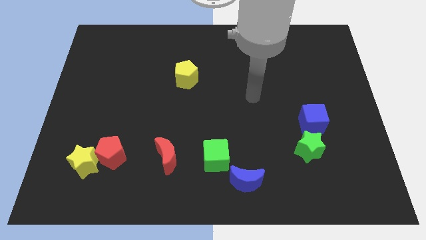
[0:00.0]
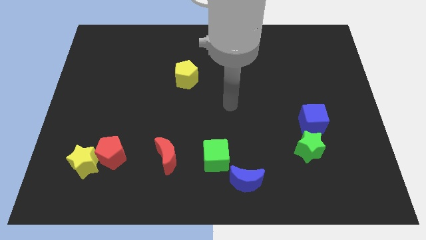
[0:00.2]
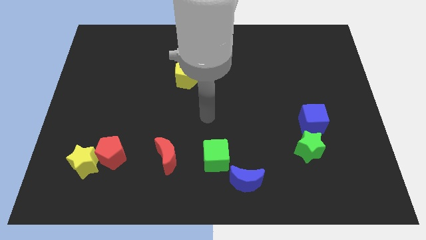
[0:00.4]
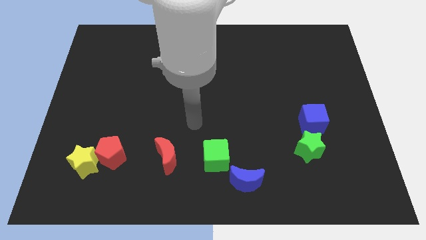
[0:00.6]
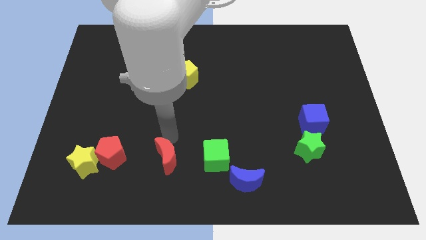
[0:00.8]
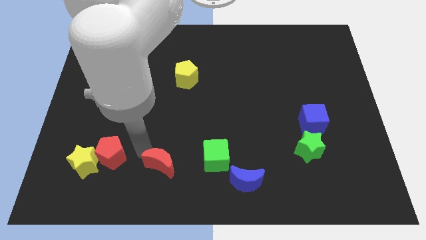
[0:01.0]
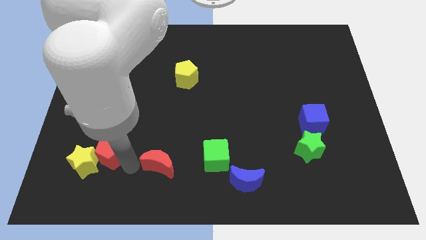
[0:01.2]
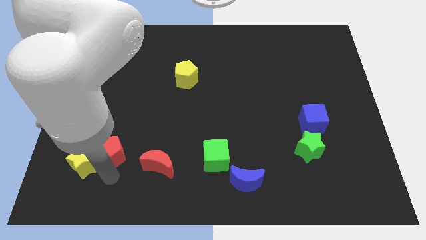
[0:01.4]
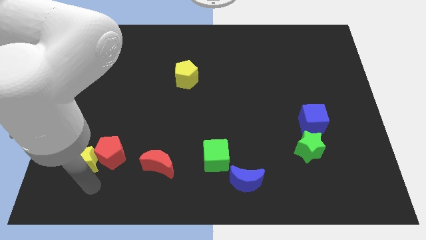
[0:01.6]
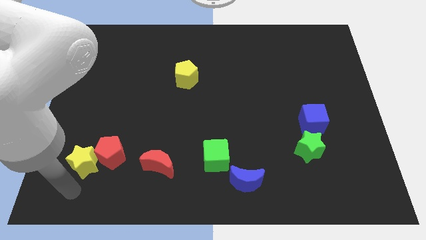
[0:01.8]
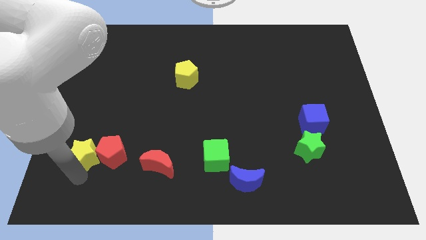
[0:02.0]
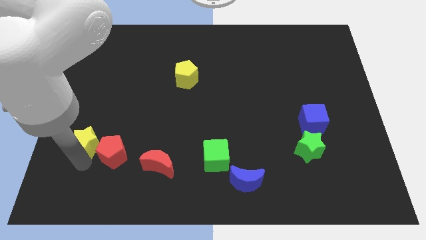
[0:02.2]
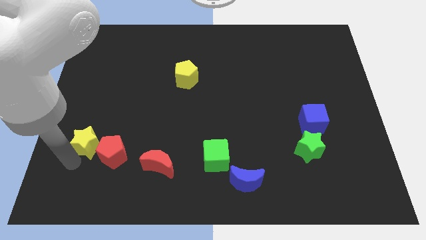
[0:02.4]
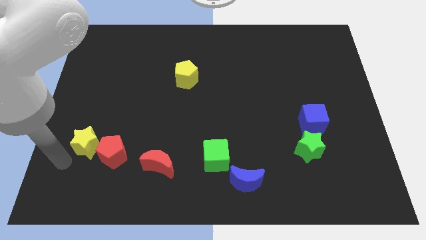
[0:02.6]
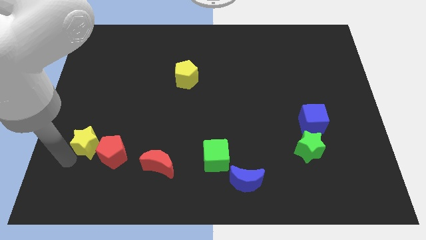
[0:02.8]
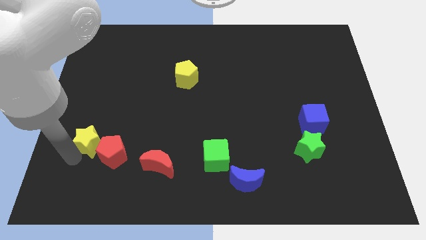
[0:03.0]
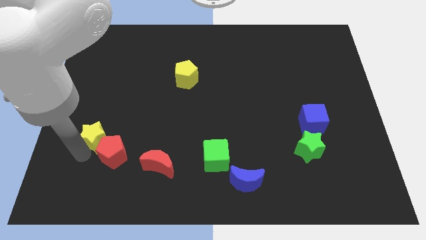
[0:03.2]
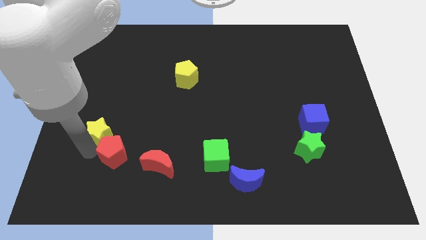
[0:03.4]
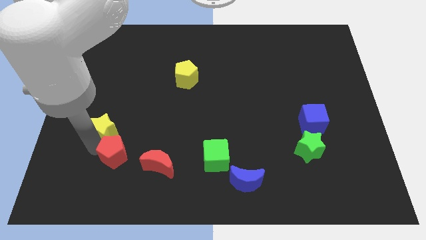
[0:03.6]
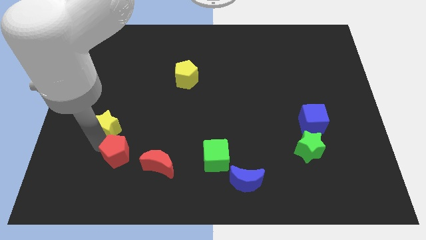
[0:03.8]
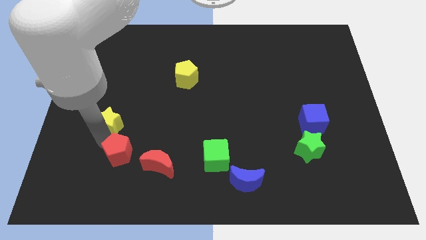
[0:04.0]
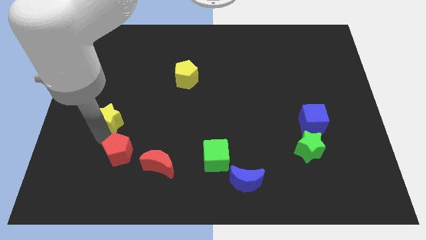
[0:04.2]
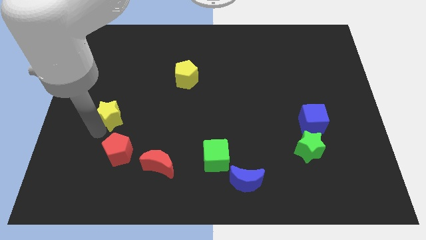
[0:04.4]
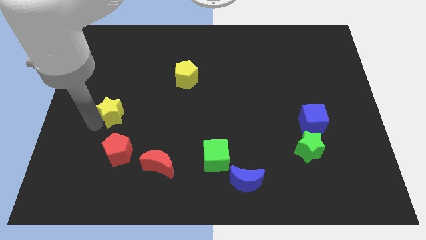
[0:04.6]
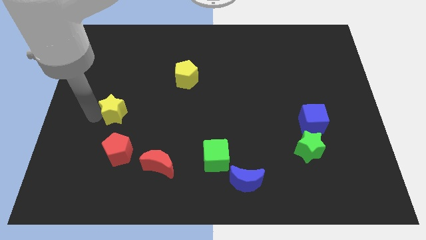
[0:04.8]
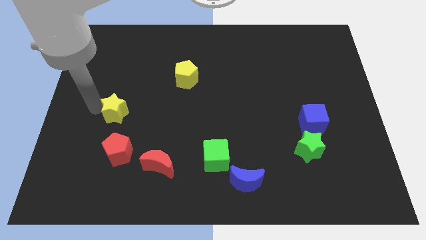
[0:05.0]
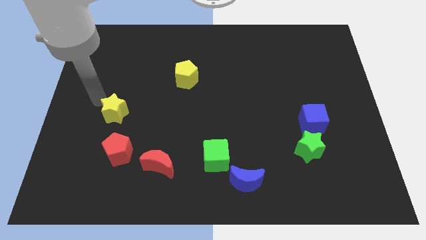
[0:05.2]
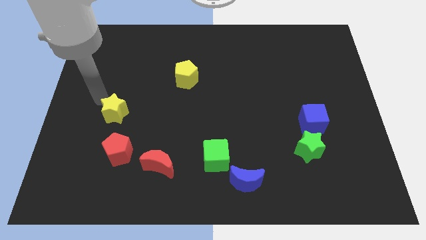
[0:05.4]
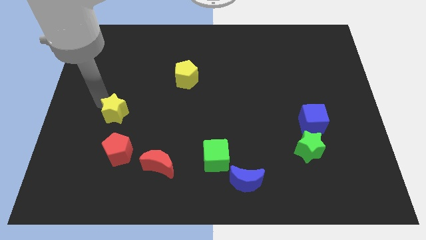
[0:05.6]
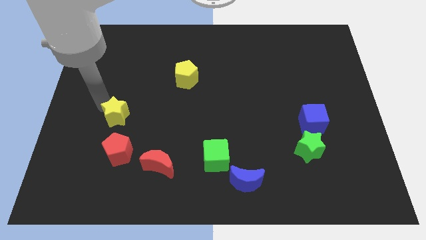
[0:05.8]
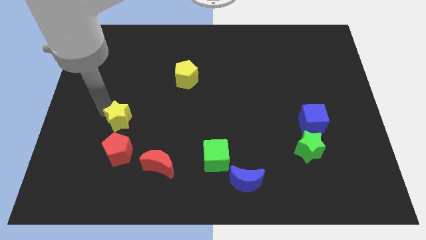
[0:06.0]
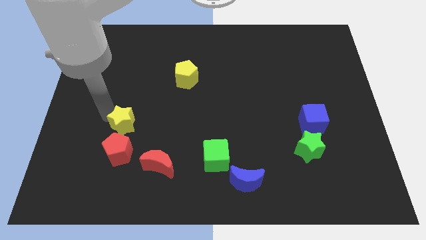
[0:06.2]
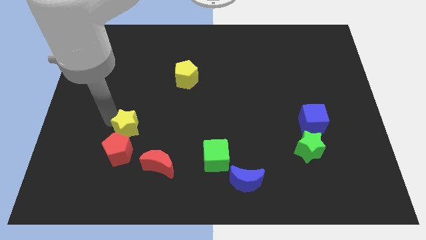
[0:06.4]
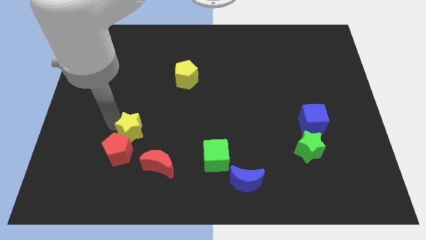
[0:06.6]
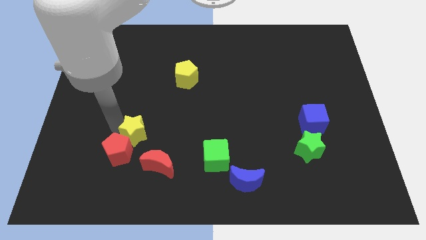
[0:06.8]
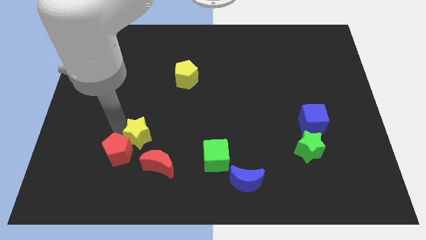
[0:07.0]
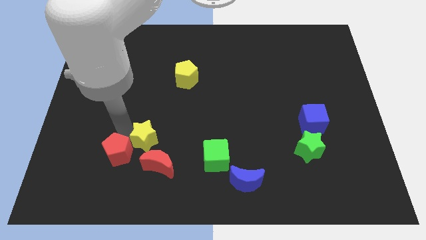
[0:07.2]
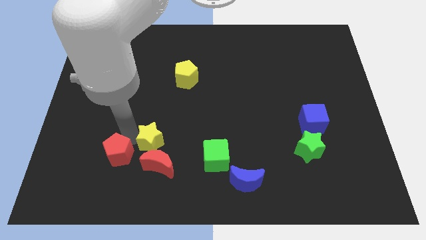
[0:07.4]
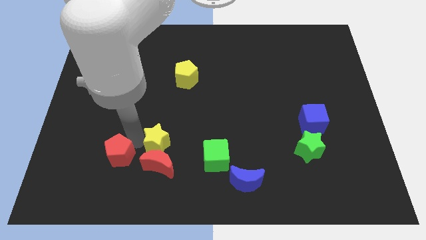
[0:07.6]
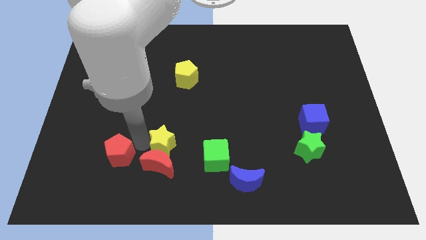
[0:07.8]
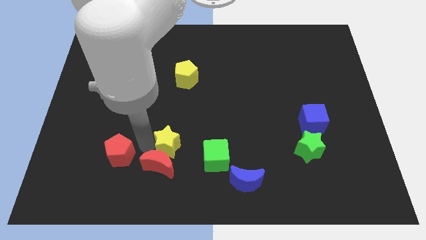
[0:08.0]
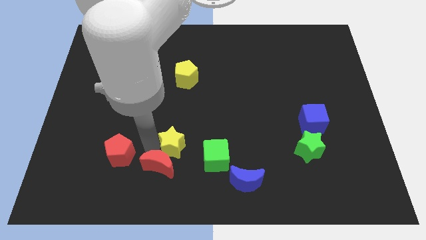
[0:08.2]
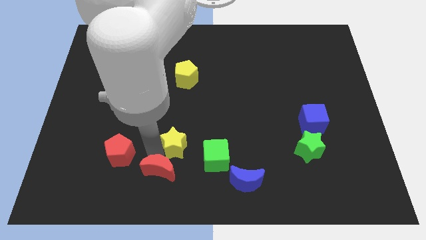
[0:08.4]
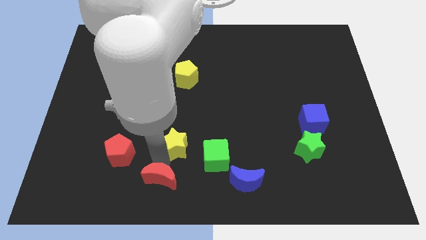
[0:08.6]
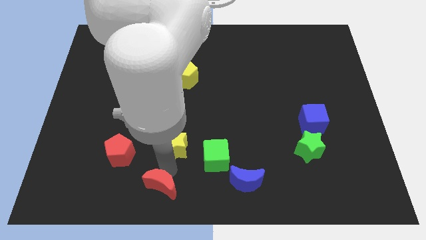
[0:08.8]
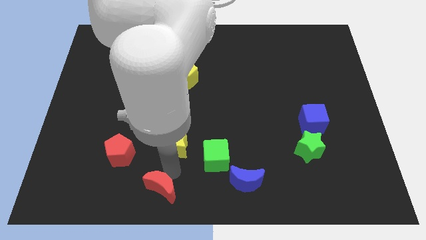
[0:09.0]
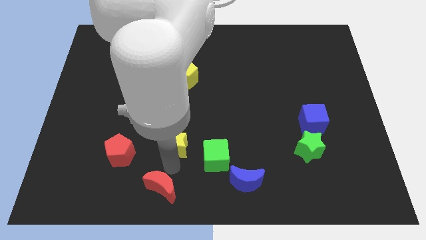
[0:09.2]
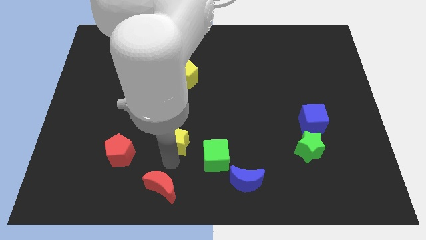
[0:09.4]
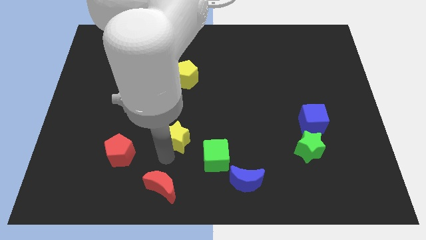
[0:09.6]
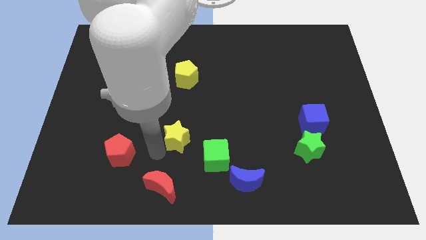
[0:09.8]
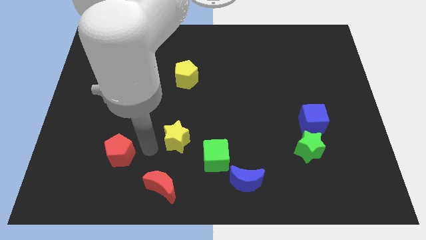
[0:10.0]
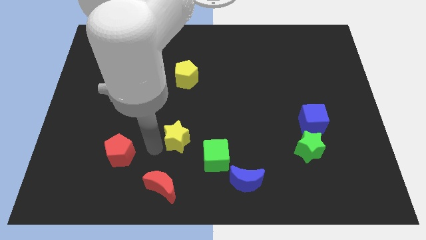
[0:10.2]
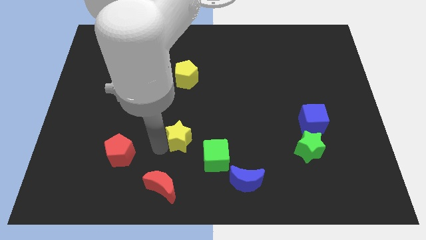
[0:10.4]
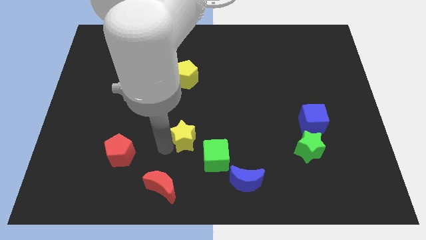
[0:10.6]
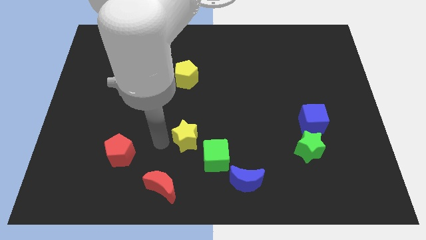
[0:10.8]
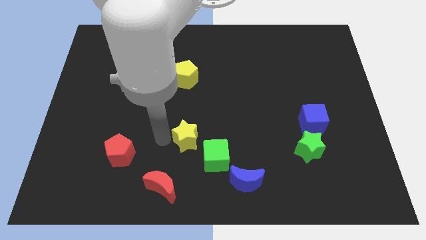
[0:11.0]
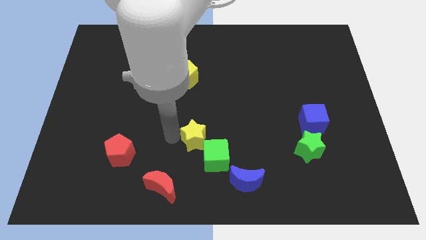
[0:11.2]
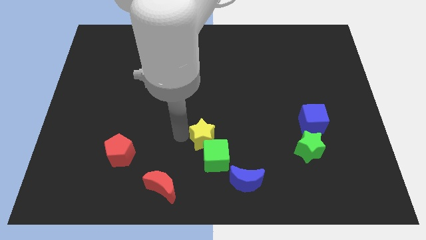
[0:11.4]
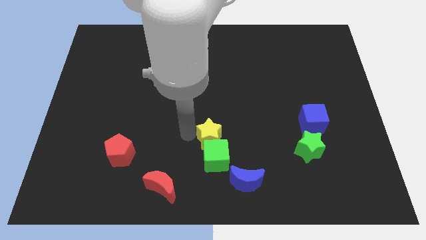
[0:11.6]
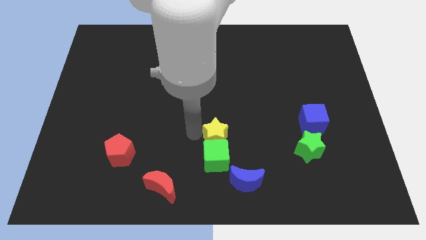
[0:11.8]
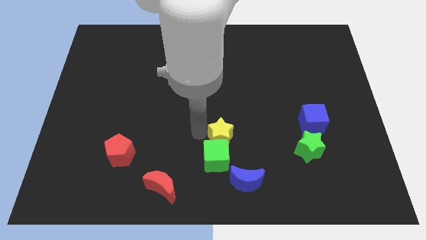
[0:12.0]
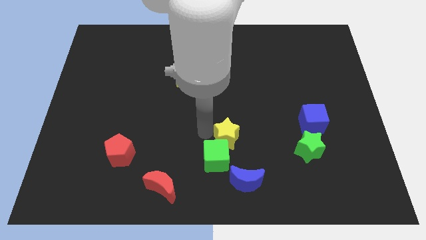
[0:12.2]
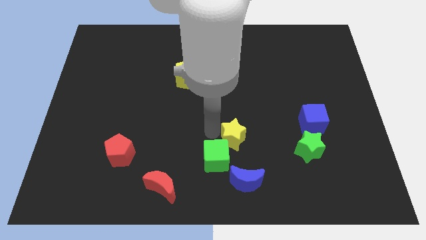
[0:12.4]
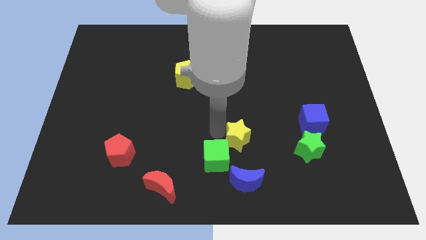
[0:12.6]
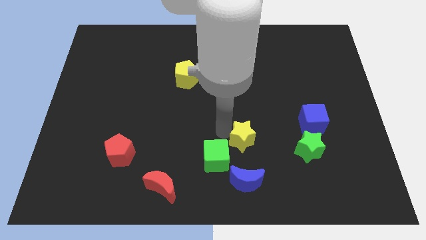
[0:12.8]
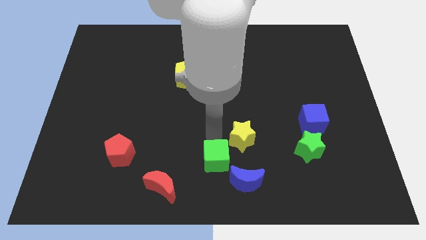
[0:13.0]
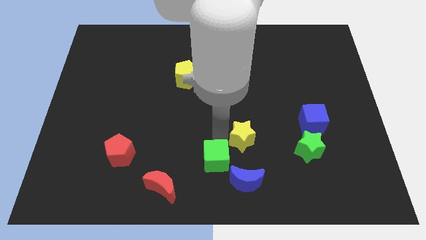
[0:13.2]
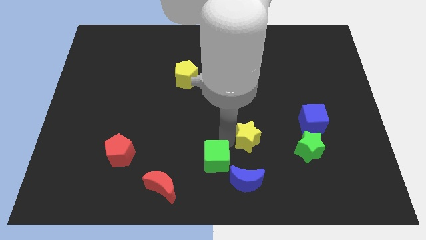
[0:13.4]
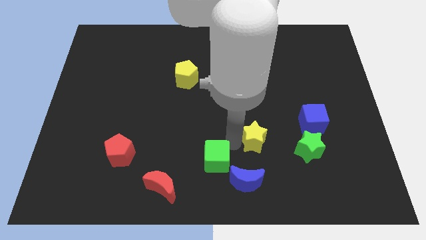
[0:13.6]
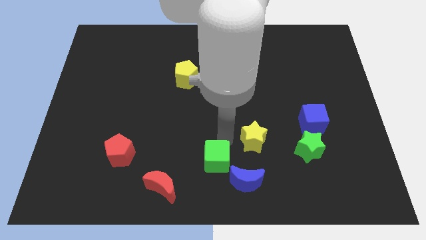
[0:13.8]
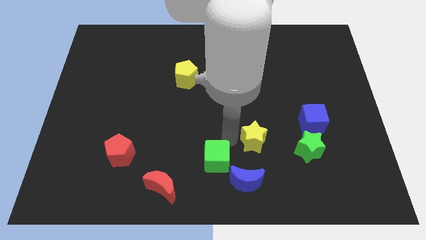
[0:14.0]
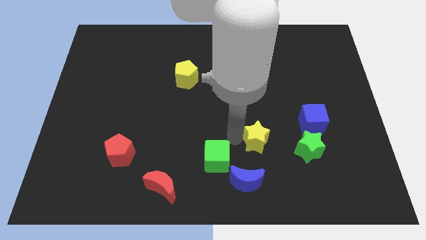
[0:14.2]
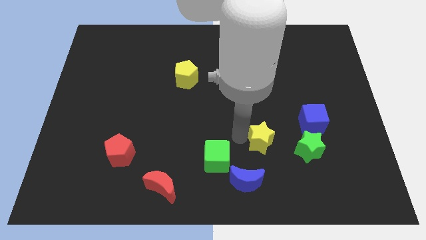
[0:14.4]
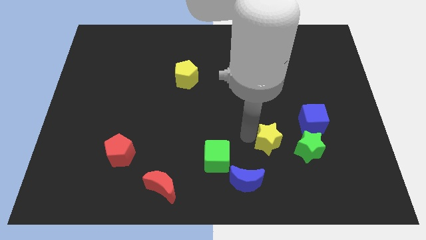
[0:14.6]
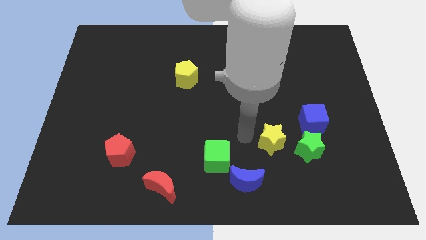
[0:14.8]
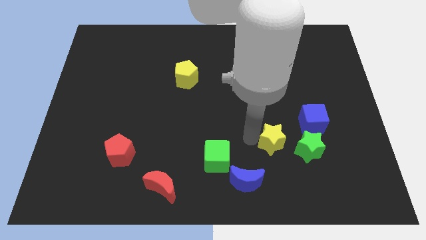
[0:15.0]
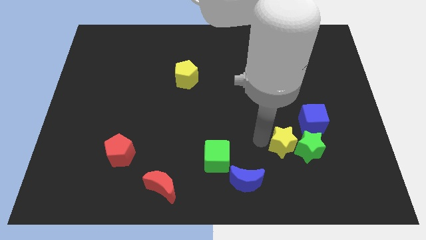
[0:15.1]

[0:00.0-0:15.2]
push the yellow star next to the green star
